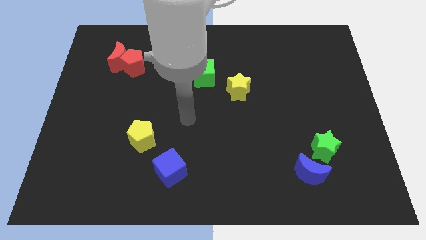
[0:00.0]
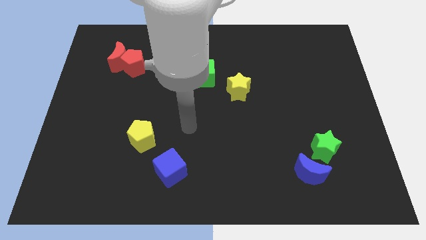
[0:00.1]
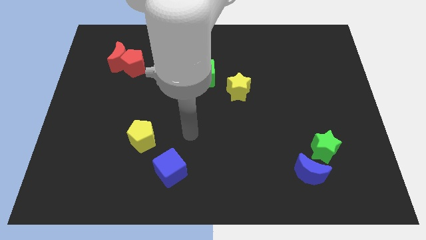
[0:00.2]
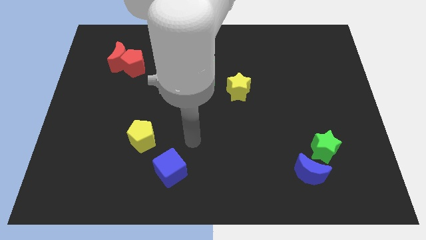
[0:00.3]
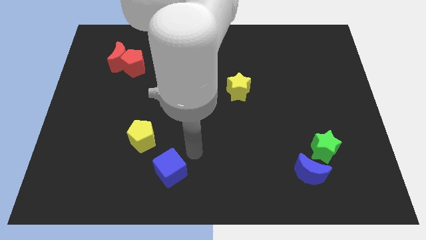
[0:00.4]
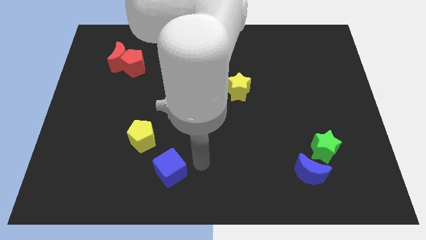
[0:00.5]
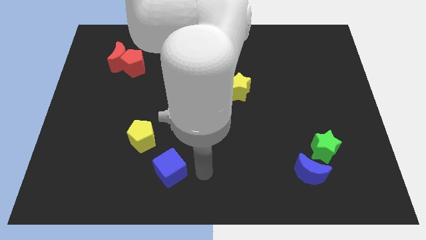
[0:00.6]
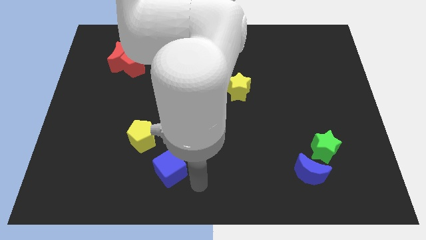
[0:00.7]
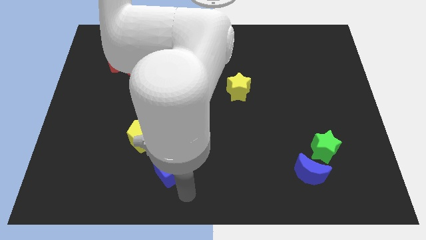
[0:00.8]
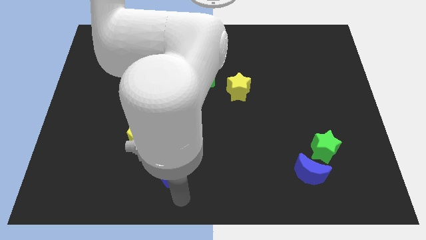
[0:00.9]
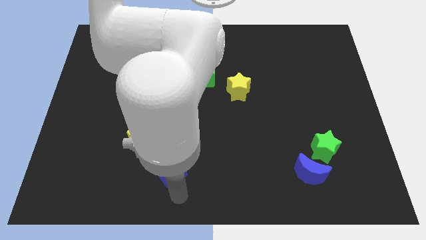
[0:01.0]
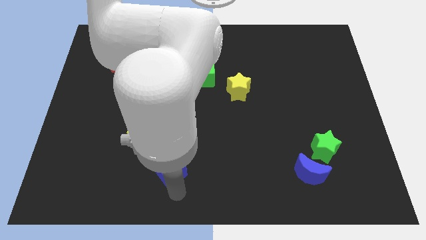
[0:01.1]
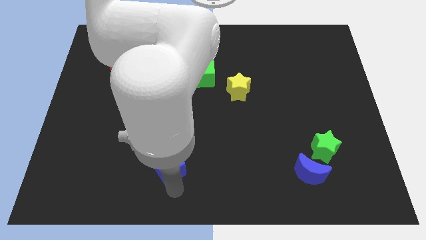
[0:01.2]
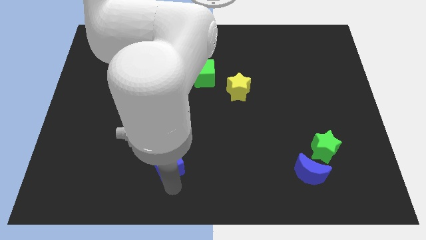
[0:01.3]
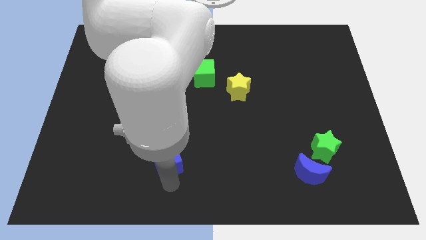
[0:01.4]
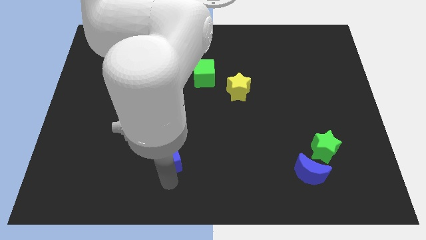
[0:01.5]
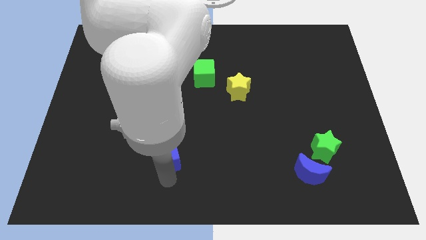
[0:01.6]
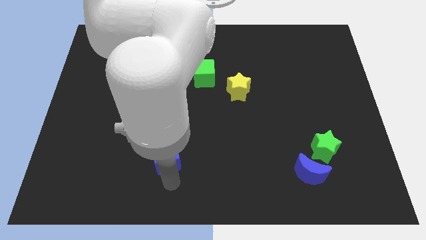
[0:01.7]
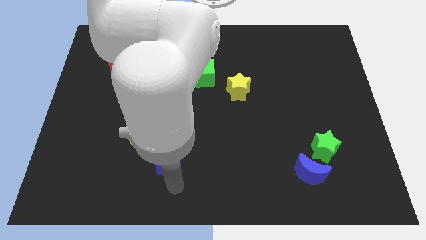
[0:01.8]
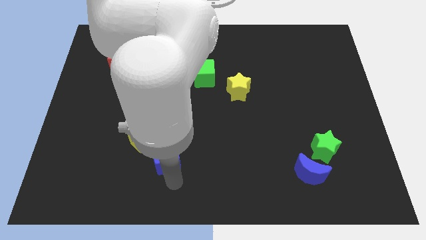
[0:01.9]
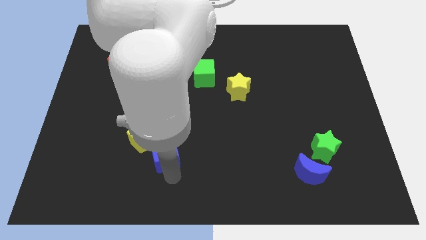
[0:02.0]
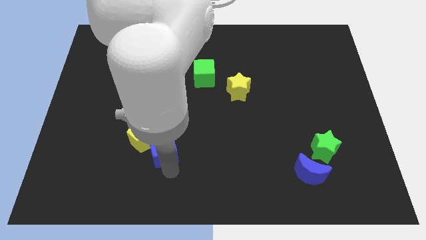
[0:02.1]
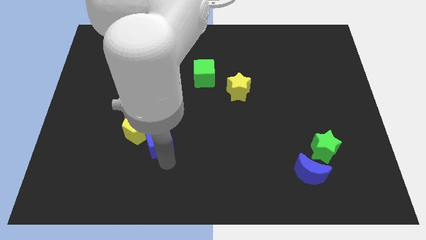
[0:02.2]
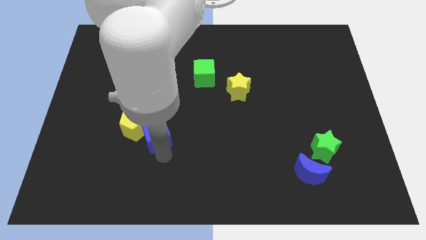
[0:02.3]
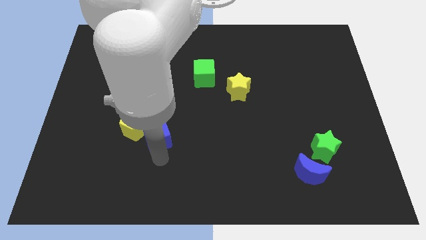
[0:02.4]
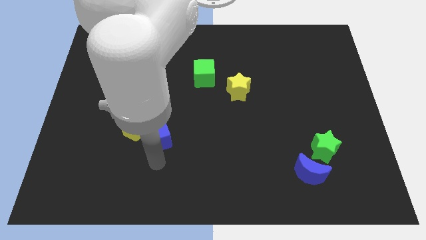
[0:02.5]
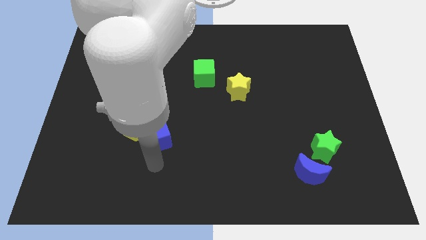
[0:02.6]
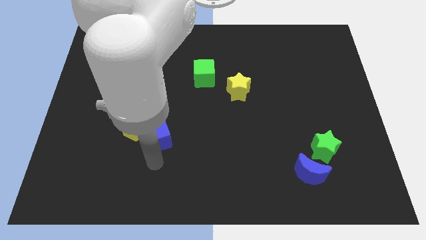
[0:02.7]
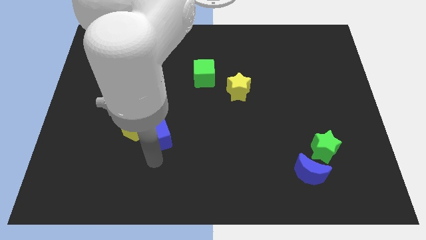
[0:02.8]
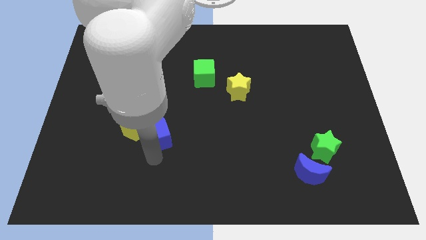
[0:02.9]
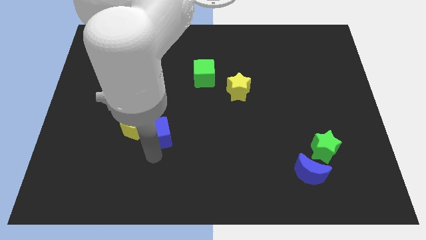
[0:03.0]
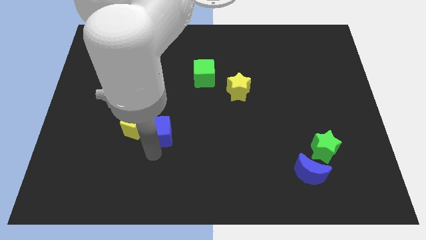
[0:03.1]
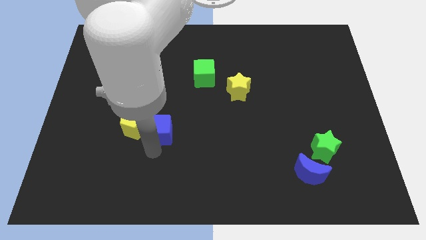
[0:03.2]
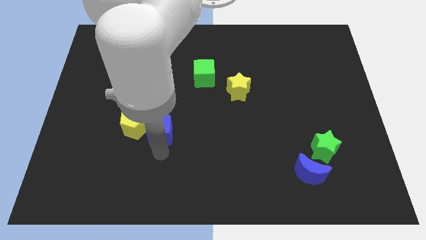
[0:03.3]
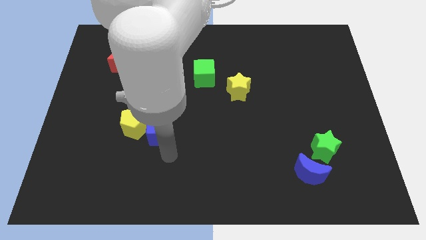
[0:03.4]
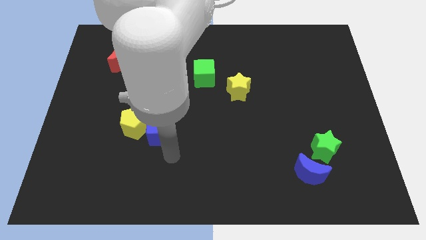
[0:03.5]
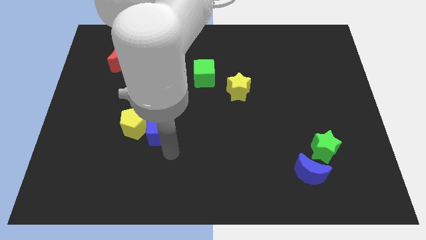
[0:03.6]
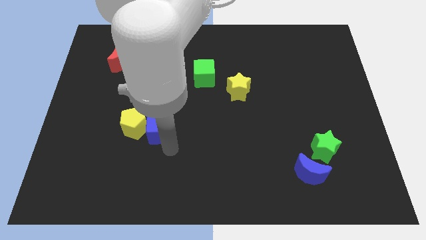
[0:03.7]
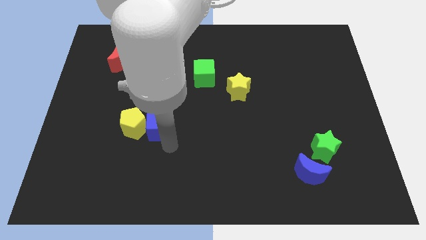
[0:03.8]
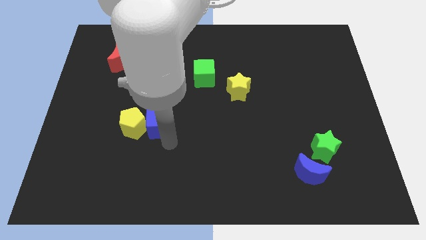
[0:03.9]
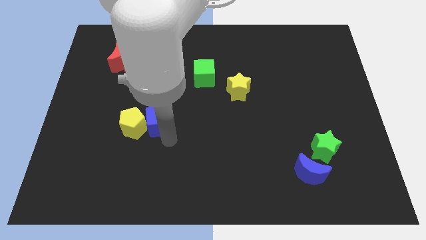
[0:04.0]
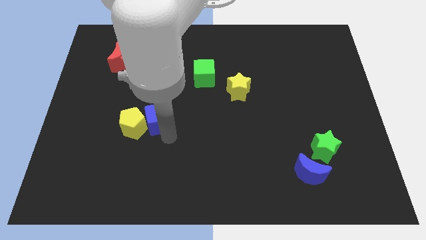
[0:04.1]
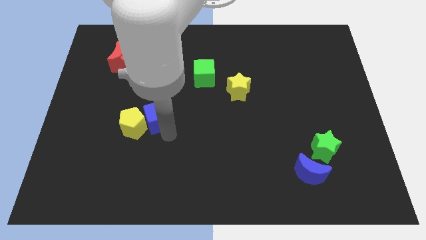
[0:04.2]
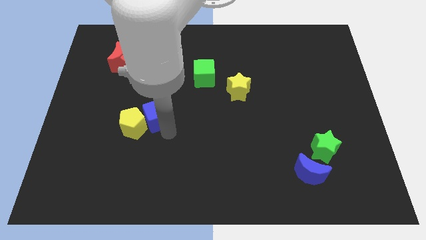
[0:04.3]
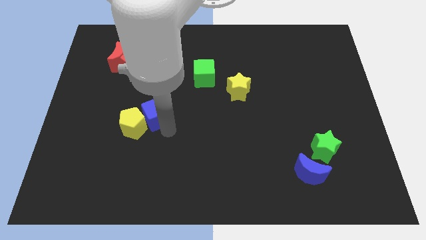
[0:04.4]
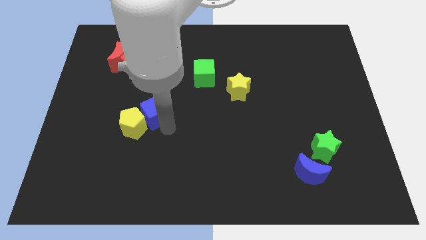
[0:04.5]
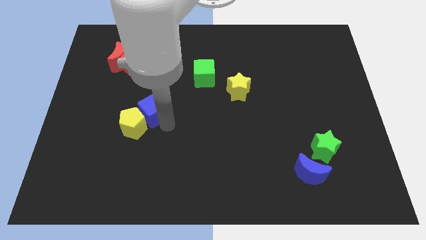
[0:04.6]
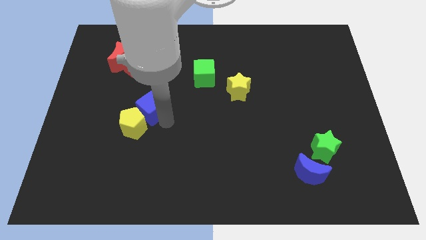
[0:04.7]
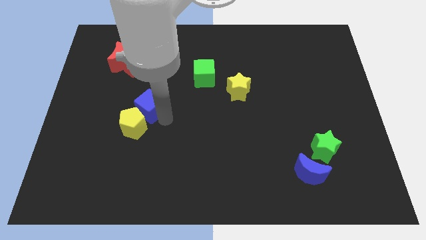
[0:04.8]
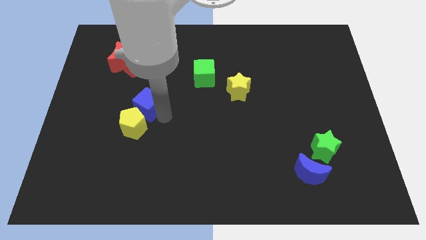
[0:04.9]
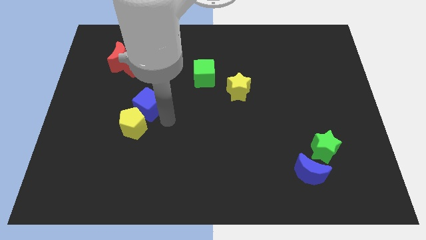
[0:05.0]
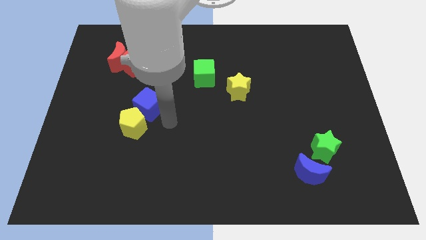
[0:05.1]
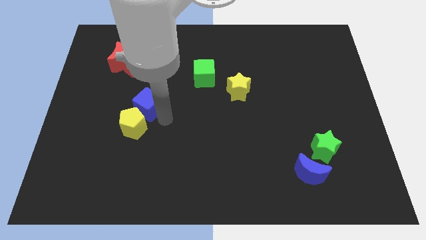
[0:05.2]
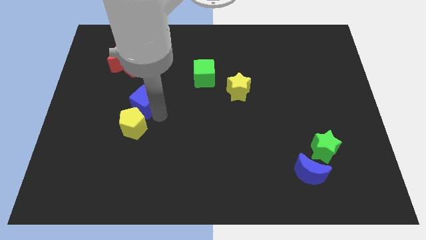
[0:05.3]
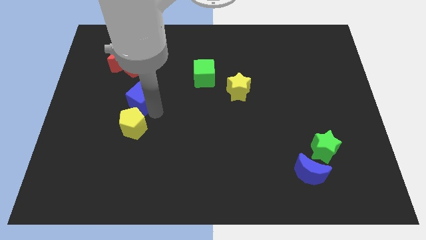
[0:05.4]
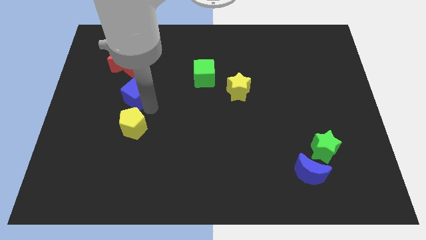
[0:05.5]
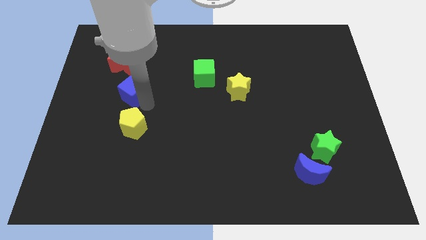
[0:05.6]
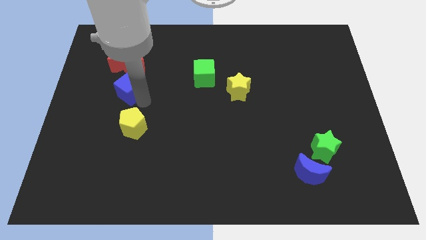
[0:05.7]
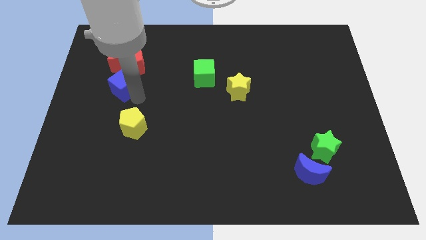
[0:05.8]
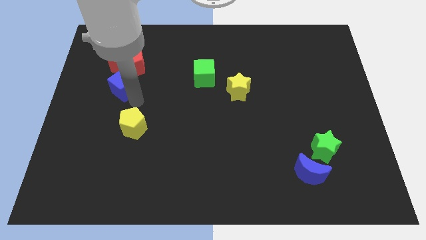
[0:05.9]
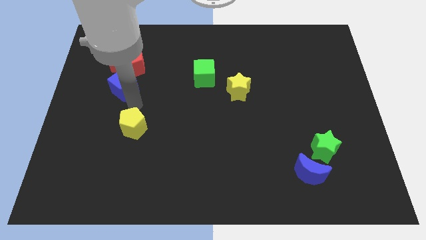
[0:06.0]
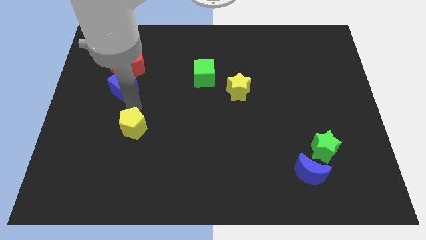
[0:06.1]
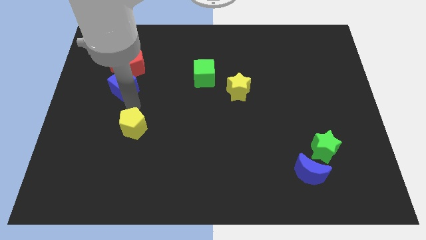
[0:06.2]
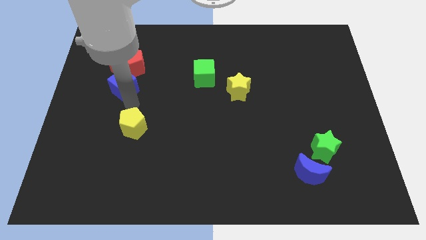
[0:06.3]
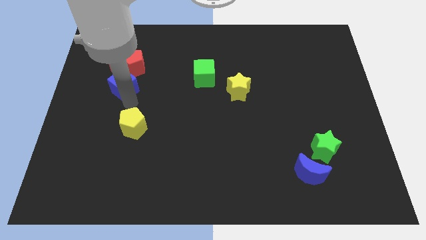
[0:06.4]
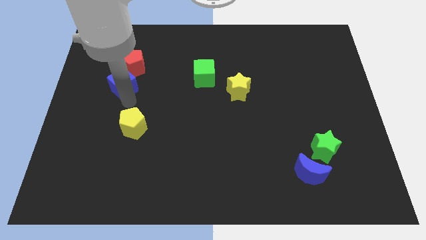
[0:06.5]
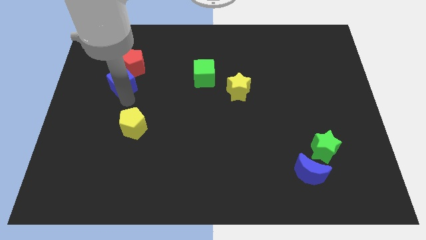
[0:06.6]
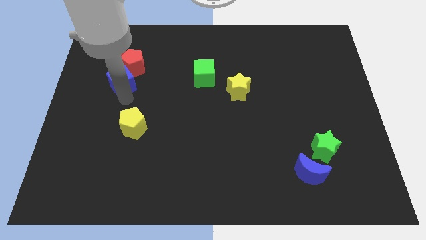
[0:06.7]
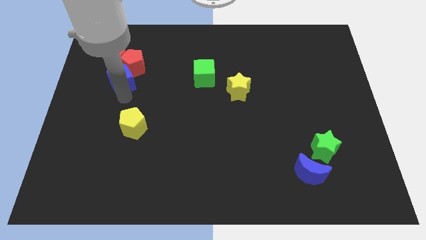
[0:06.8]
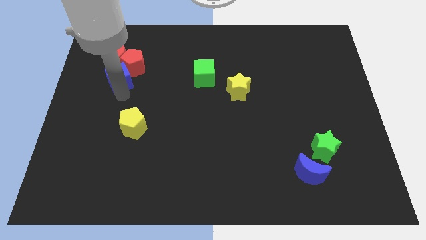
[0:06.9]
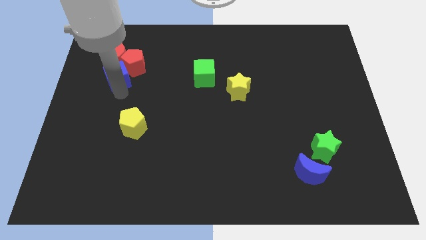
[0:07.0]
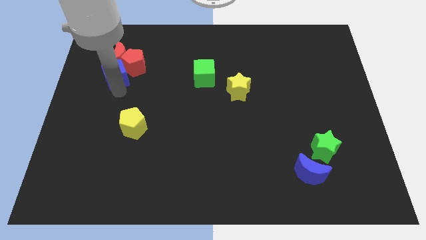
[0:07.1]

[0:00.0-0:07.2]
move the blue cube to the red moon

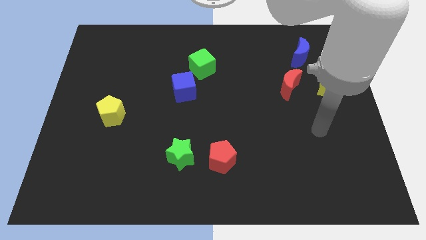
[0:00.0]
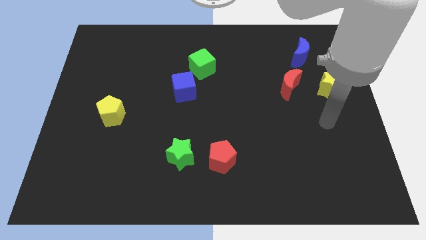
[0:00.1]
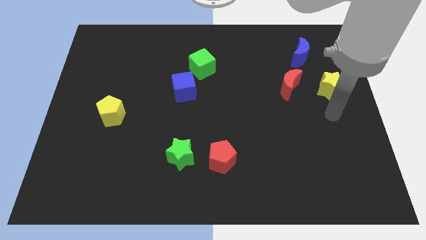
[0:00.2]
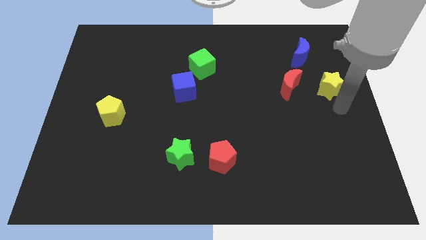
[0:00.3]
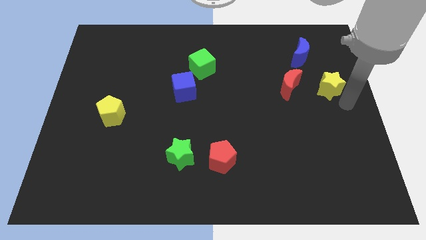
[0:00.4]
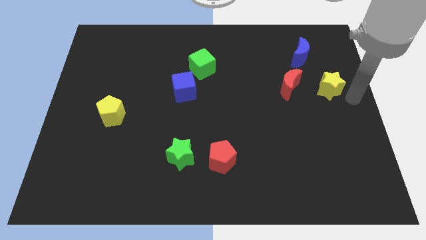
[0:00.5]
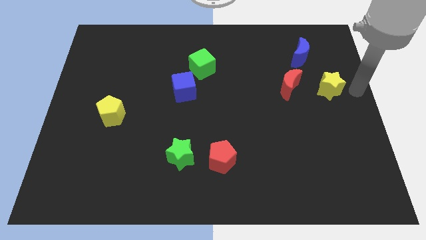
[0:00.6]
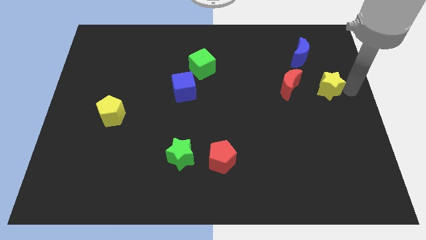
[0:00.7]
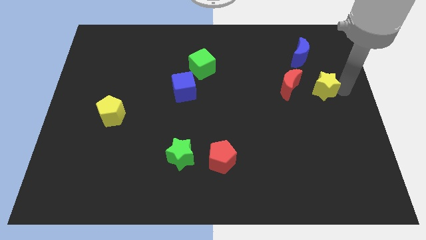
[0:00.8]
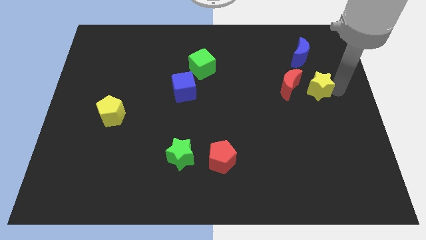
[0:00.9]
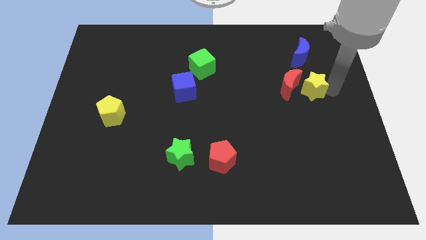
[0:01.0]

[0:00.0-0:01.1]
put the yellow star to the red moon
